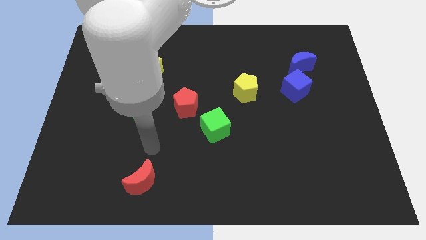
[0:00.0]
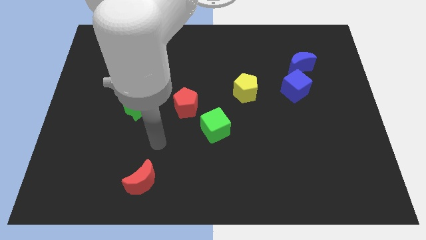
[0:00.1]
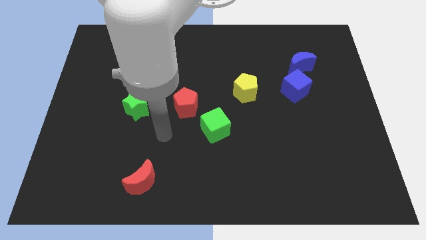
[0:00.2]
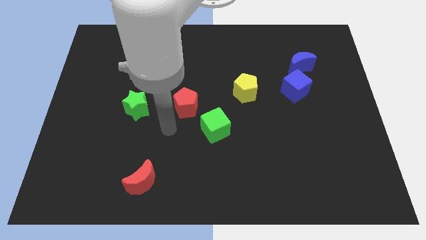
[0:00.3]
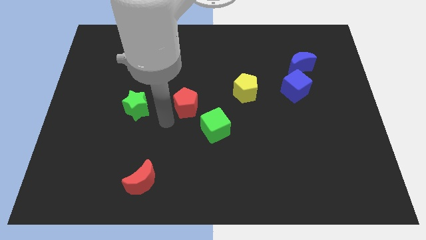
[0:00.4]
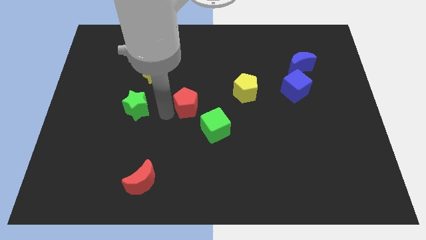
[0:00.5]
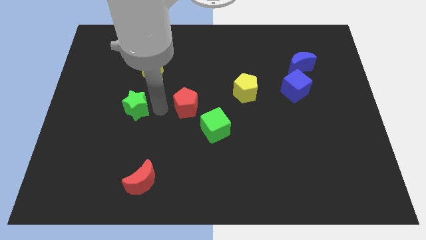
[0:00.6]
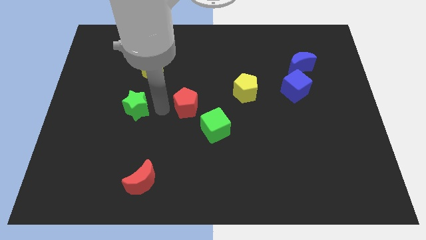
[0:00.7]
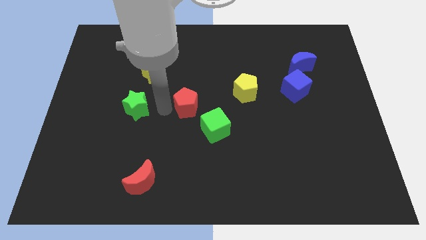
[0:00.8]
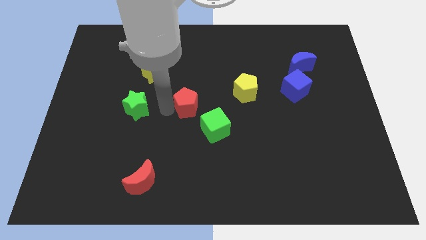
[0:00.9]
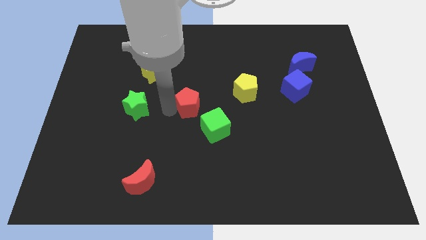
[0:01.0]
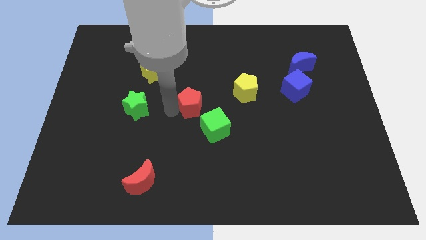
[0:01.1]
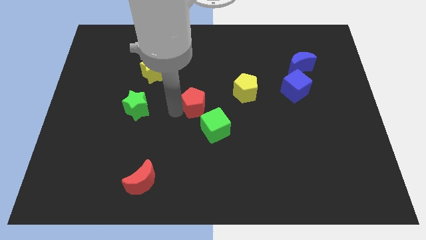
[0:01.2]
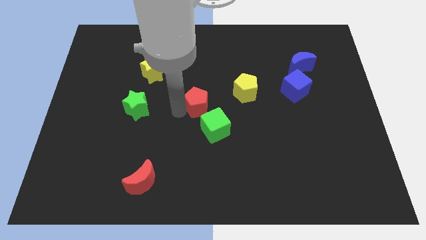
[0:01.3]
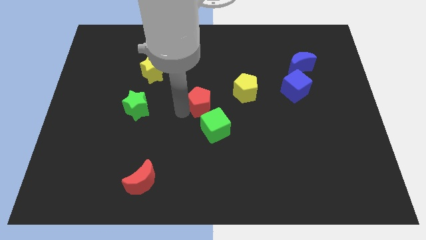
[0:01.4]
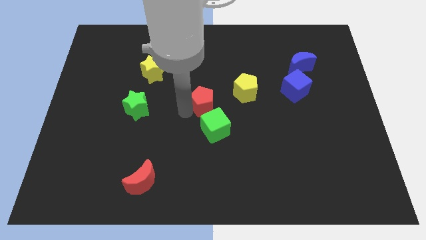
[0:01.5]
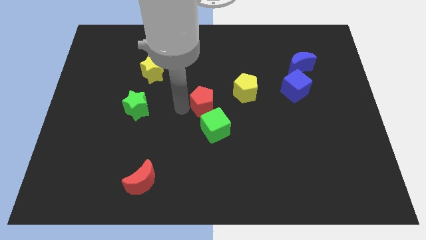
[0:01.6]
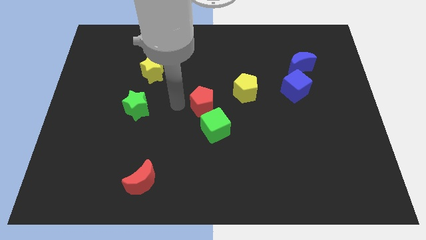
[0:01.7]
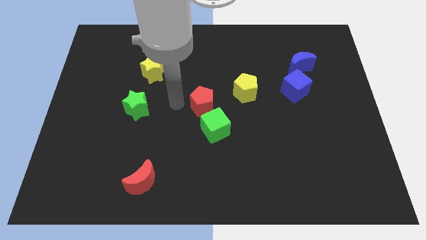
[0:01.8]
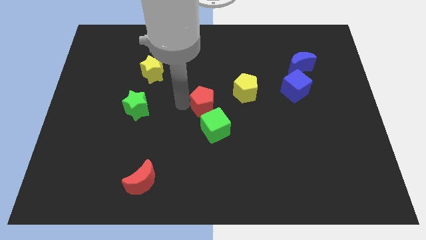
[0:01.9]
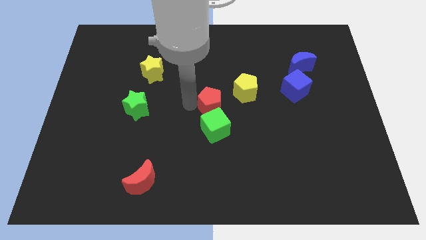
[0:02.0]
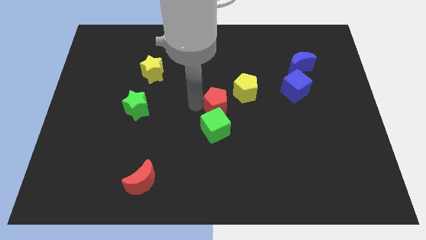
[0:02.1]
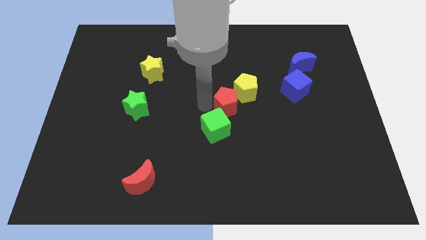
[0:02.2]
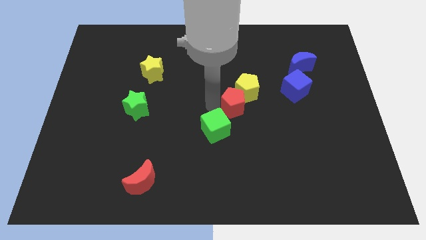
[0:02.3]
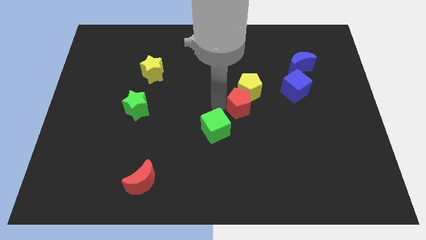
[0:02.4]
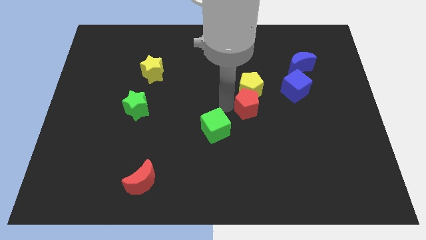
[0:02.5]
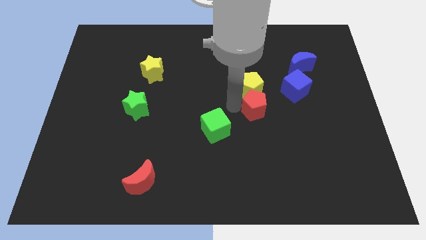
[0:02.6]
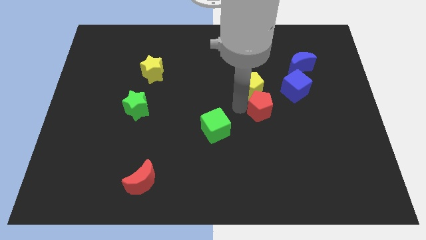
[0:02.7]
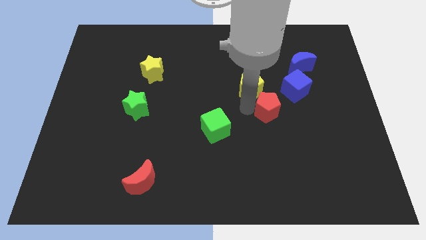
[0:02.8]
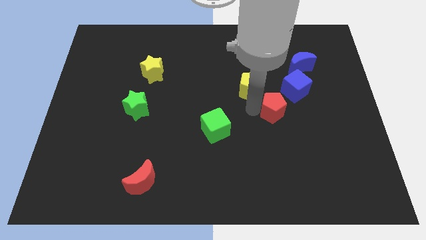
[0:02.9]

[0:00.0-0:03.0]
move the red pentagon right

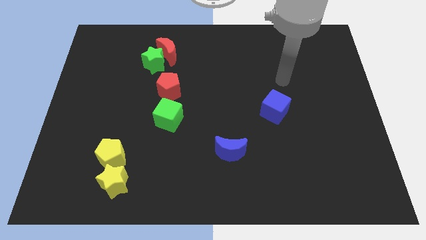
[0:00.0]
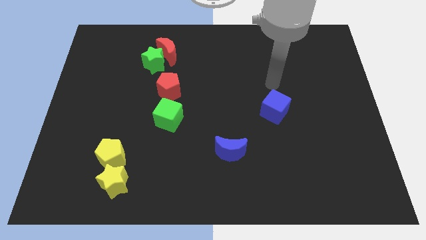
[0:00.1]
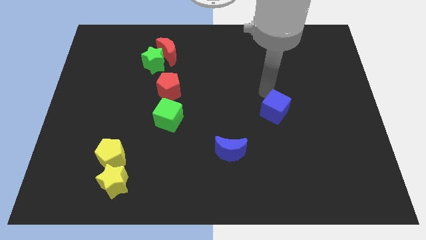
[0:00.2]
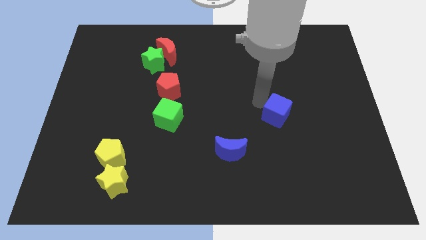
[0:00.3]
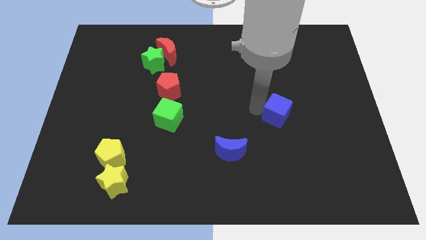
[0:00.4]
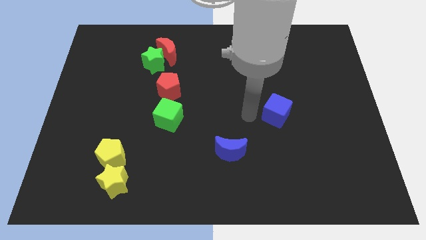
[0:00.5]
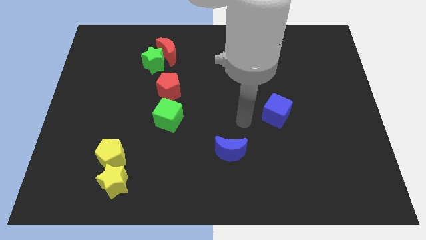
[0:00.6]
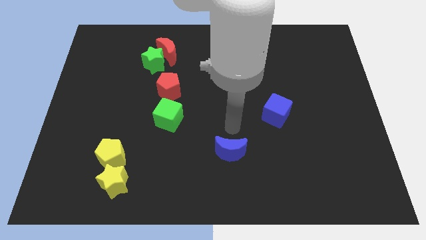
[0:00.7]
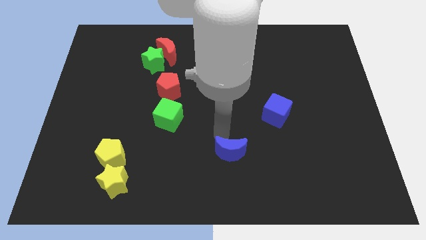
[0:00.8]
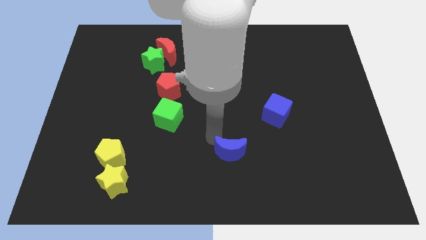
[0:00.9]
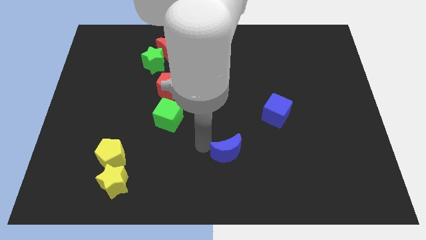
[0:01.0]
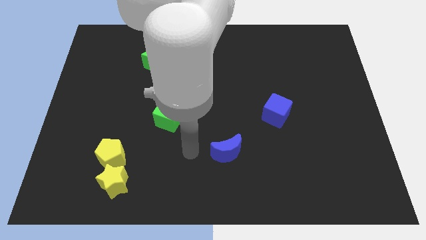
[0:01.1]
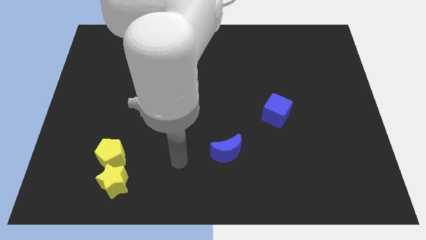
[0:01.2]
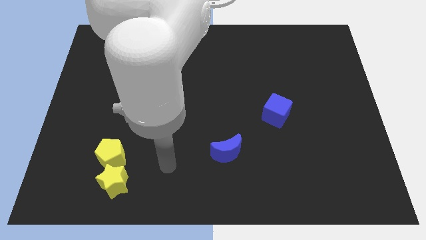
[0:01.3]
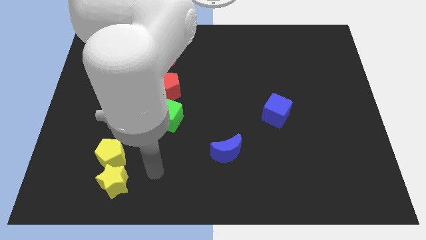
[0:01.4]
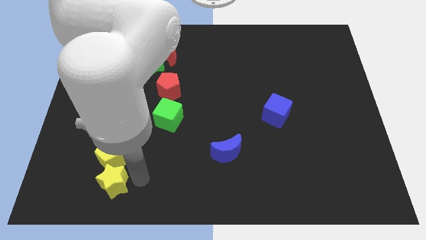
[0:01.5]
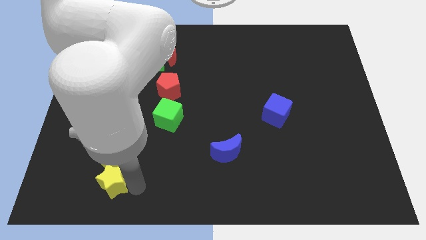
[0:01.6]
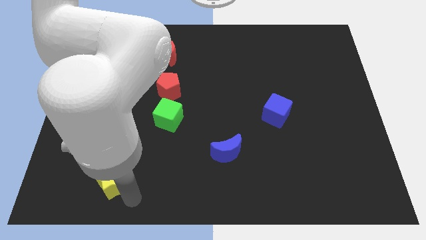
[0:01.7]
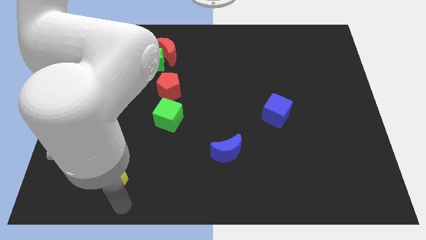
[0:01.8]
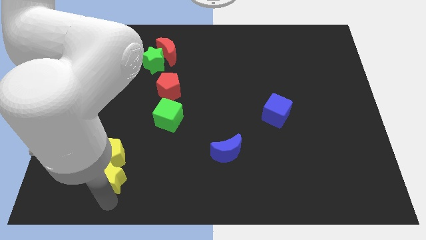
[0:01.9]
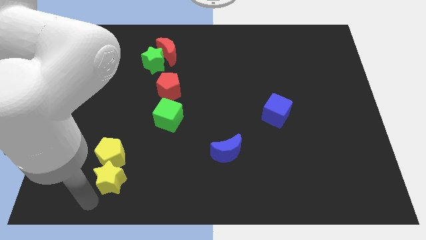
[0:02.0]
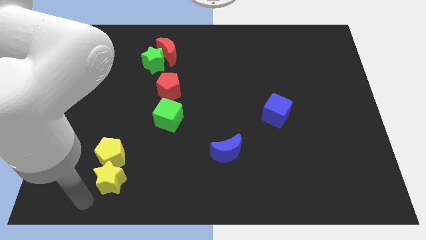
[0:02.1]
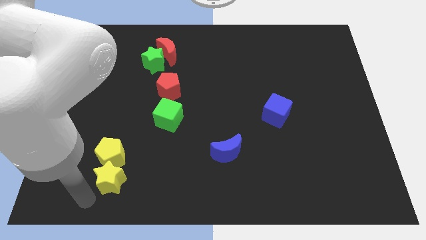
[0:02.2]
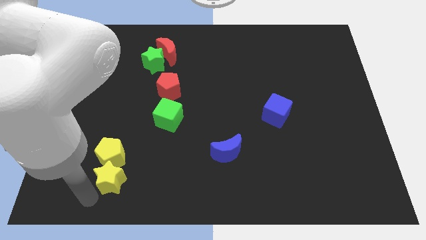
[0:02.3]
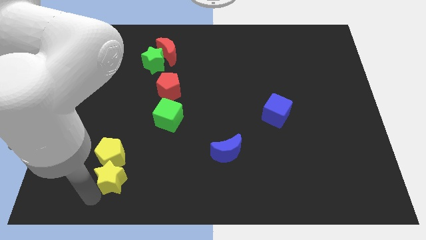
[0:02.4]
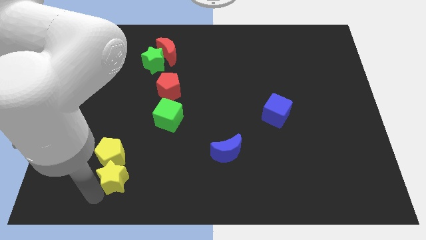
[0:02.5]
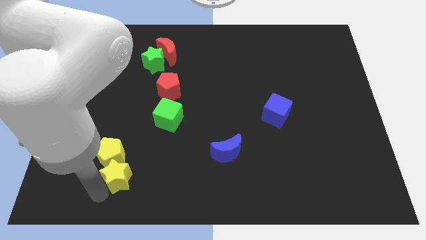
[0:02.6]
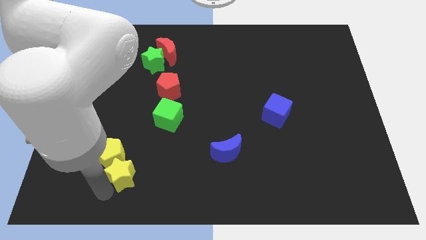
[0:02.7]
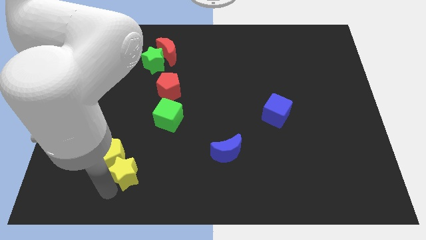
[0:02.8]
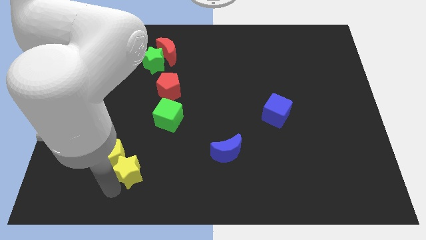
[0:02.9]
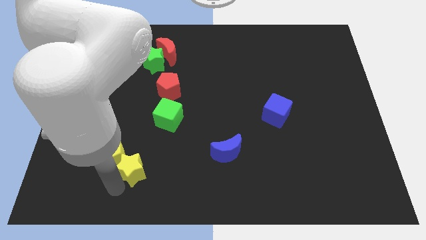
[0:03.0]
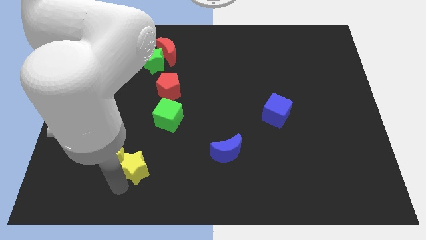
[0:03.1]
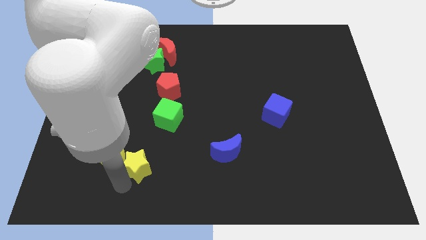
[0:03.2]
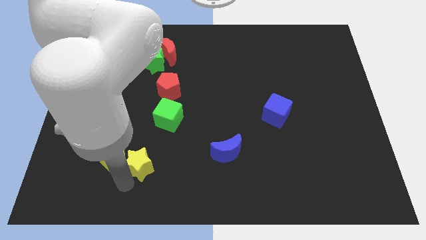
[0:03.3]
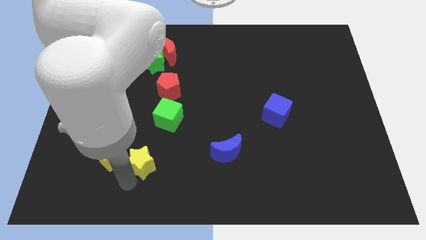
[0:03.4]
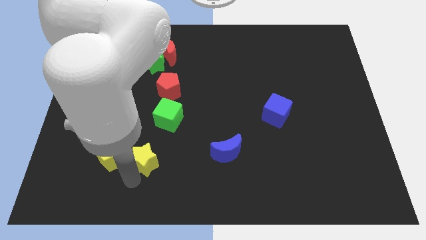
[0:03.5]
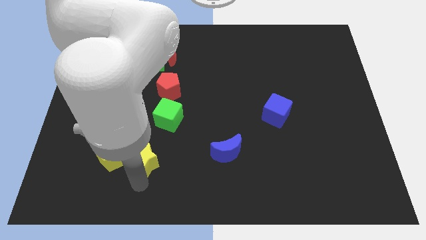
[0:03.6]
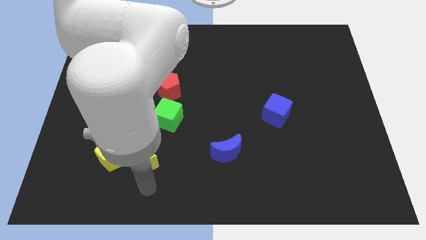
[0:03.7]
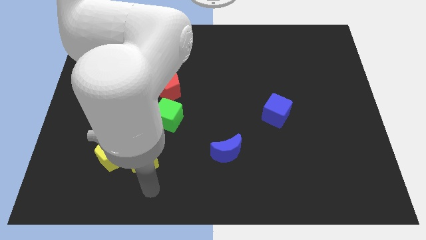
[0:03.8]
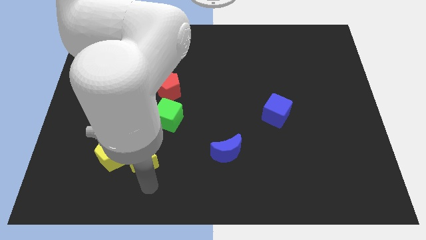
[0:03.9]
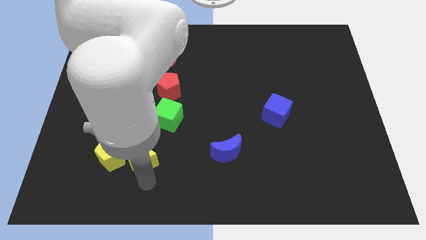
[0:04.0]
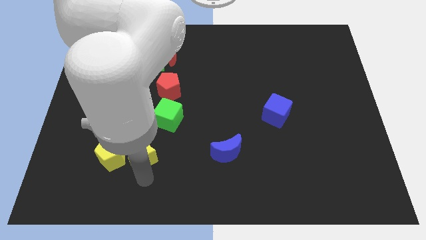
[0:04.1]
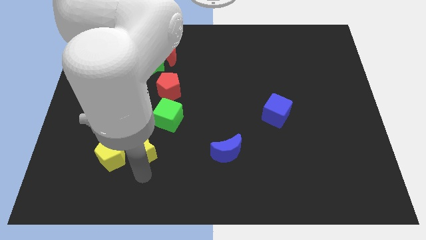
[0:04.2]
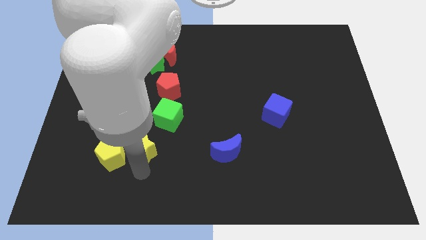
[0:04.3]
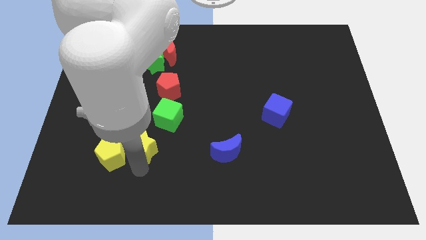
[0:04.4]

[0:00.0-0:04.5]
slightly push the yellow star upwards

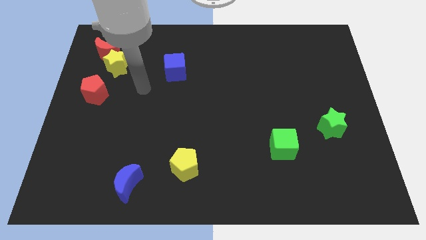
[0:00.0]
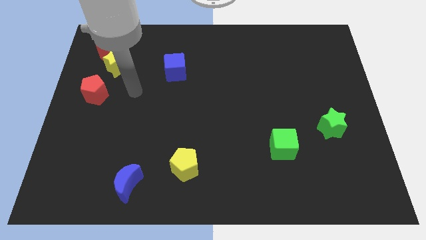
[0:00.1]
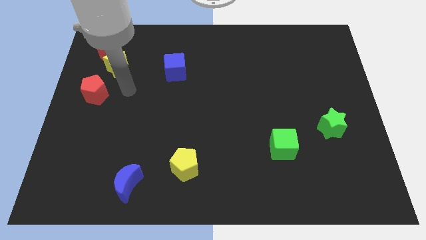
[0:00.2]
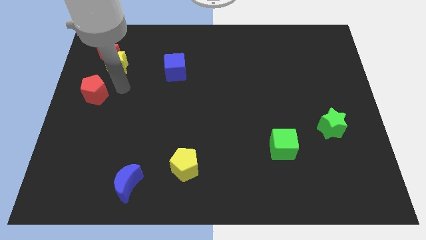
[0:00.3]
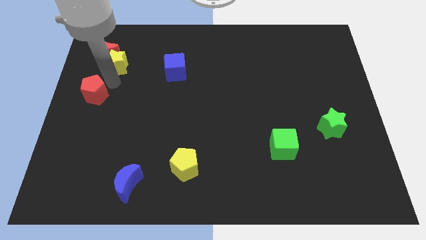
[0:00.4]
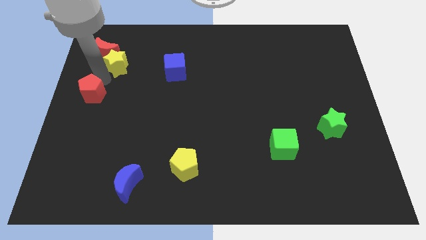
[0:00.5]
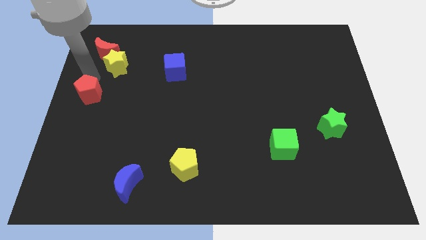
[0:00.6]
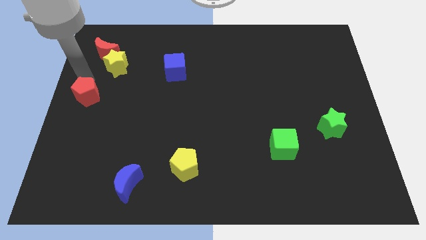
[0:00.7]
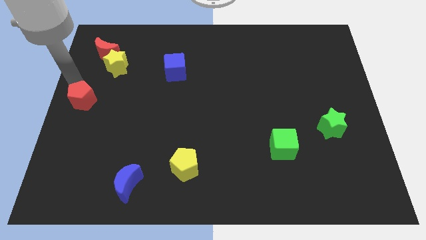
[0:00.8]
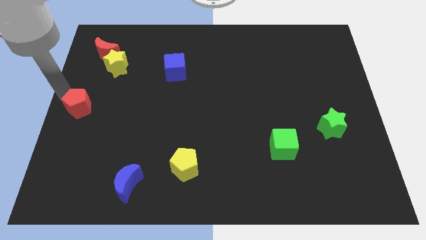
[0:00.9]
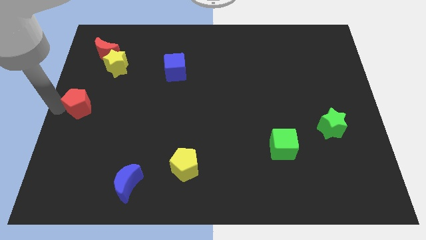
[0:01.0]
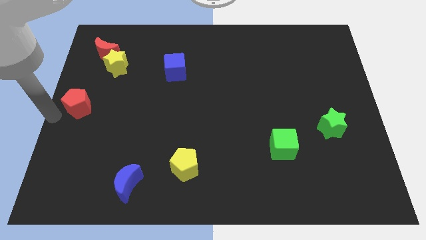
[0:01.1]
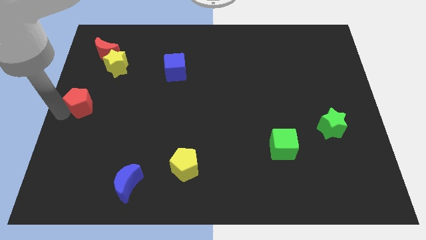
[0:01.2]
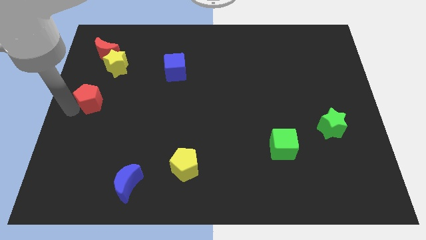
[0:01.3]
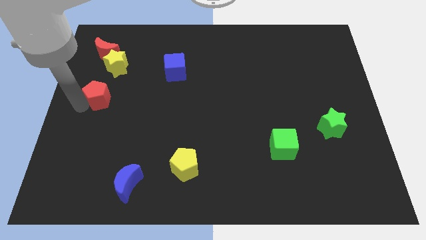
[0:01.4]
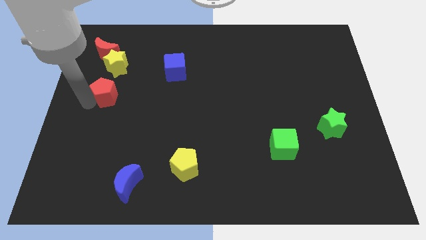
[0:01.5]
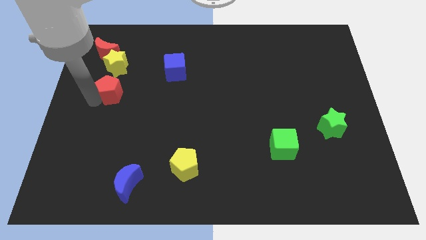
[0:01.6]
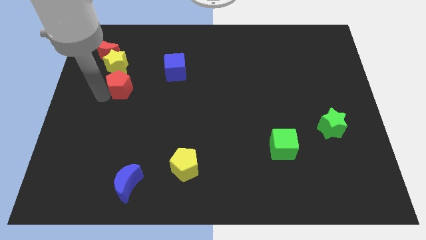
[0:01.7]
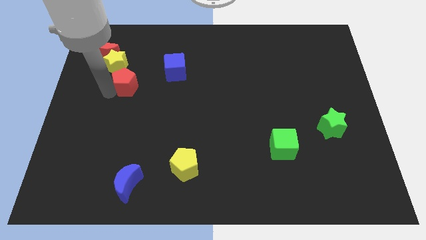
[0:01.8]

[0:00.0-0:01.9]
push the red pentagon somewhat to the right
